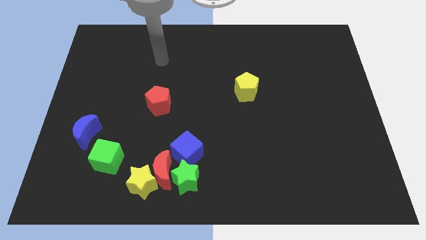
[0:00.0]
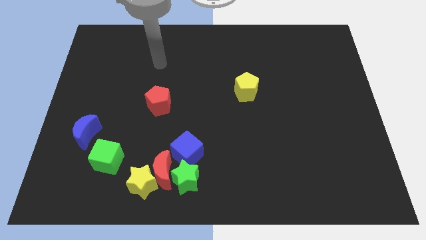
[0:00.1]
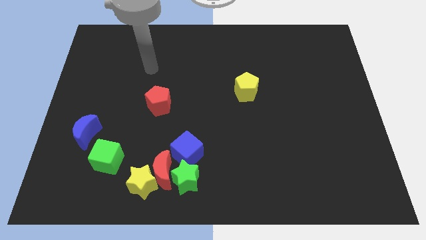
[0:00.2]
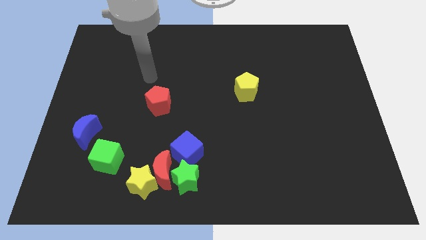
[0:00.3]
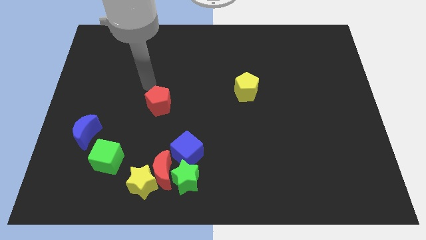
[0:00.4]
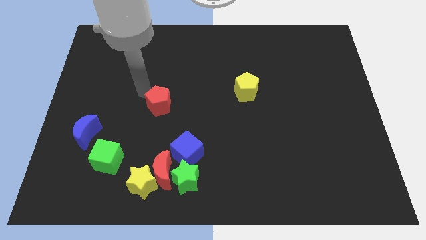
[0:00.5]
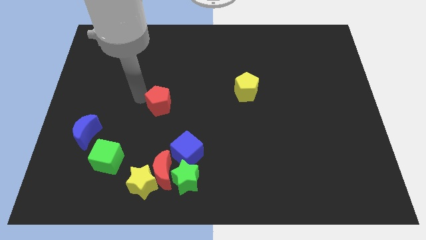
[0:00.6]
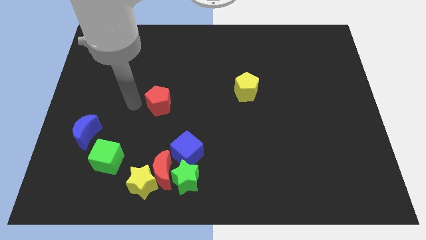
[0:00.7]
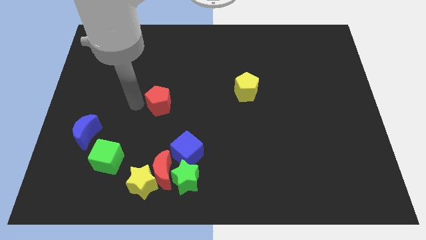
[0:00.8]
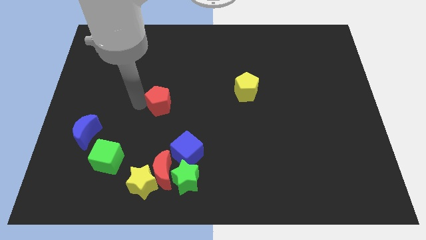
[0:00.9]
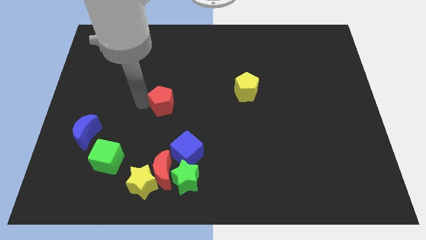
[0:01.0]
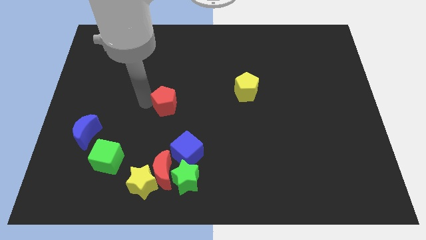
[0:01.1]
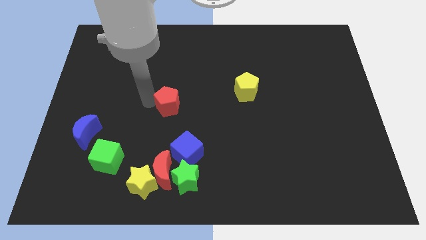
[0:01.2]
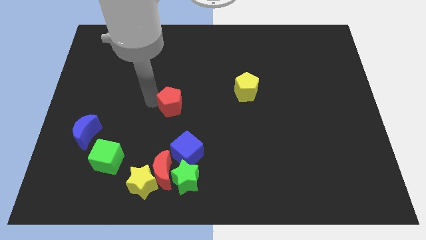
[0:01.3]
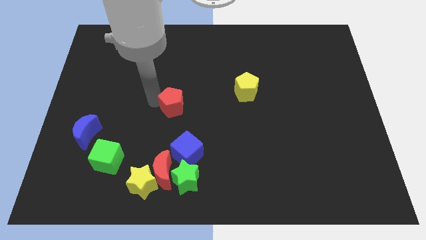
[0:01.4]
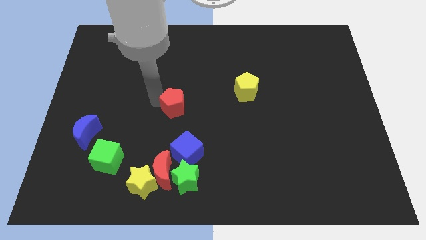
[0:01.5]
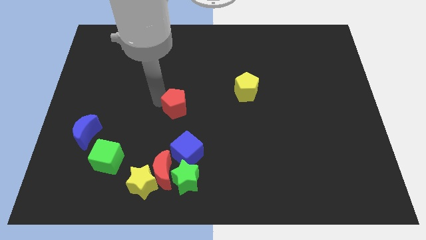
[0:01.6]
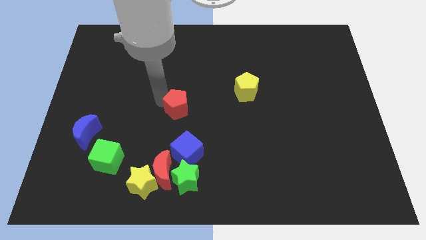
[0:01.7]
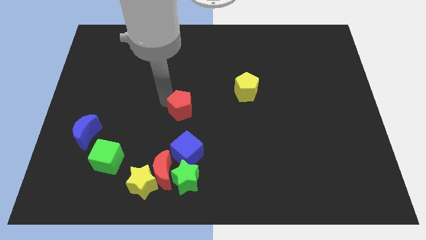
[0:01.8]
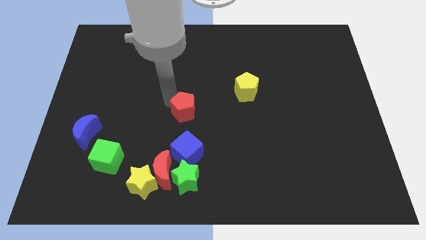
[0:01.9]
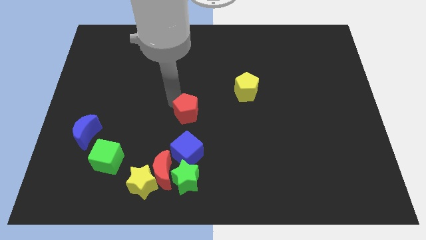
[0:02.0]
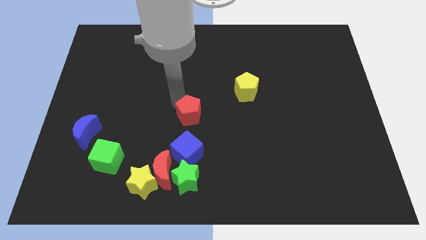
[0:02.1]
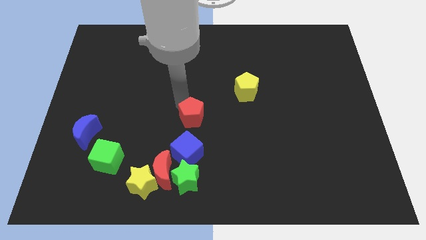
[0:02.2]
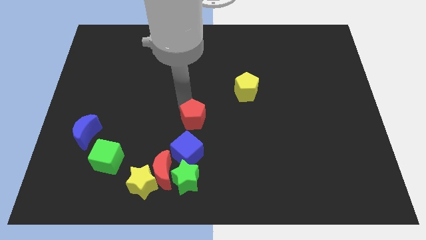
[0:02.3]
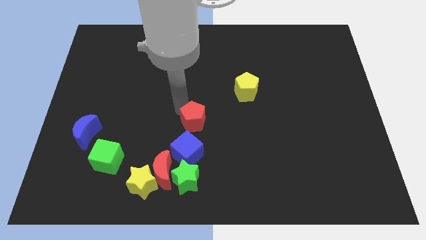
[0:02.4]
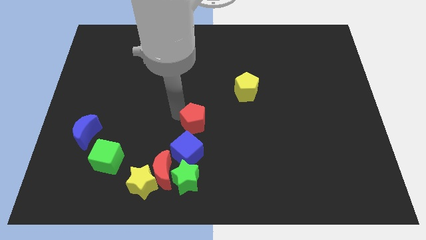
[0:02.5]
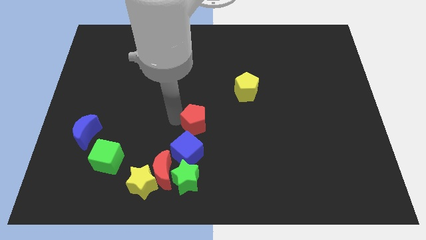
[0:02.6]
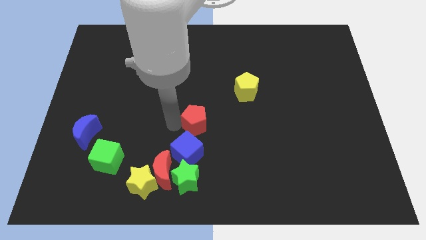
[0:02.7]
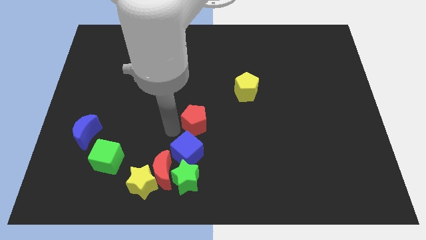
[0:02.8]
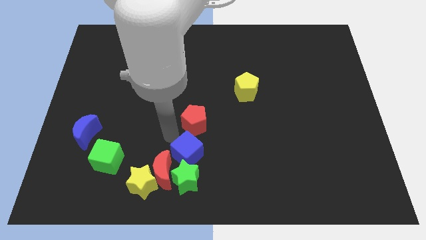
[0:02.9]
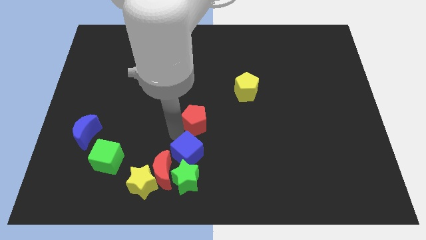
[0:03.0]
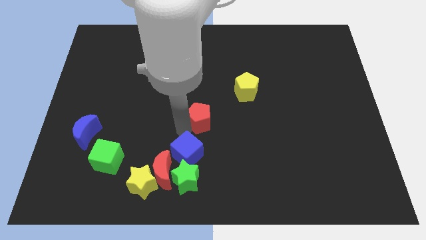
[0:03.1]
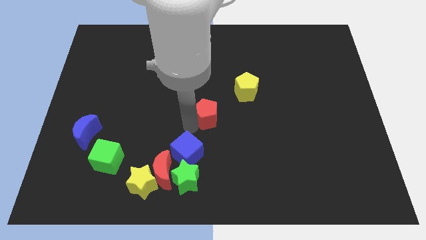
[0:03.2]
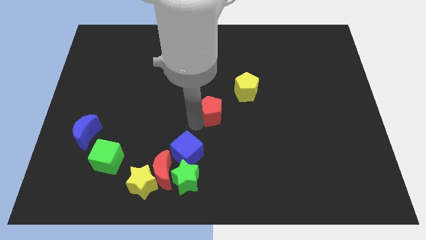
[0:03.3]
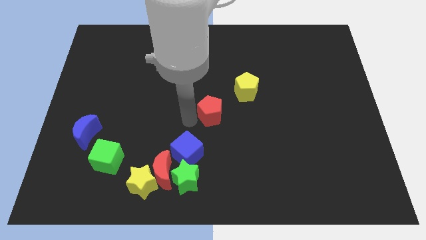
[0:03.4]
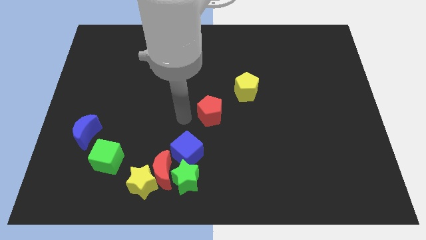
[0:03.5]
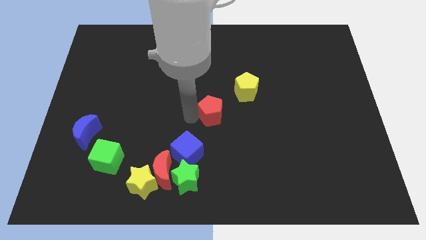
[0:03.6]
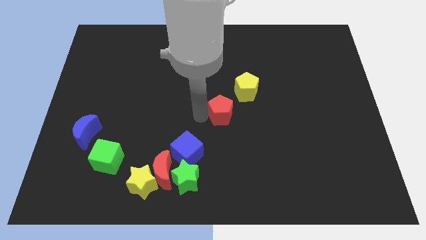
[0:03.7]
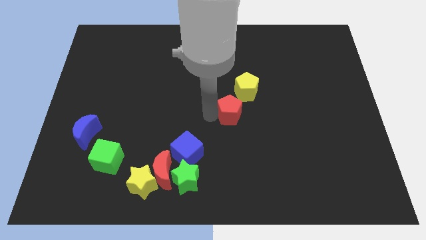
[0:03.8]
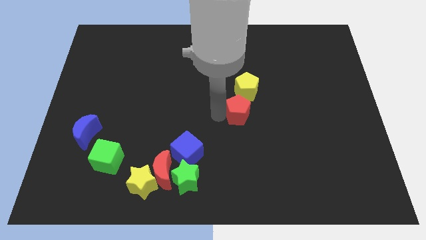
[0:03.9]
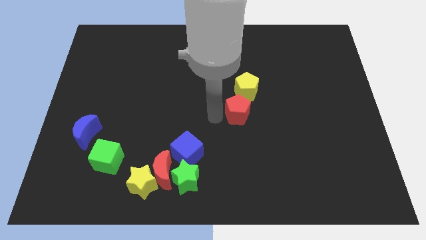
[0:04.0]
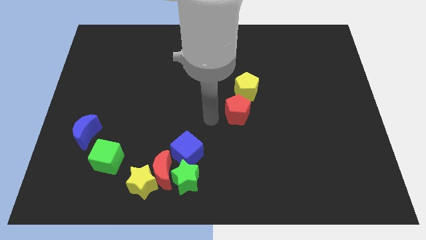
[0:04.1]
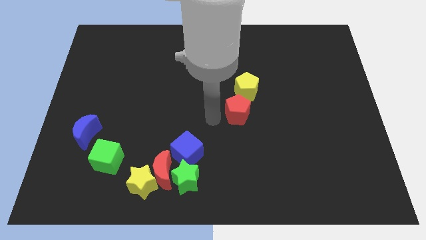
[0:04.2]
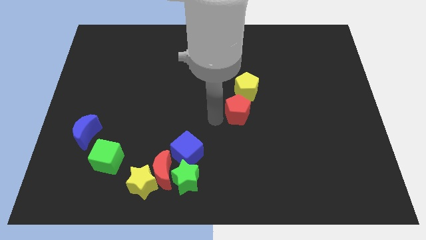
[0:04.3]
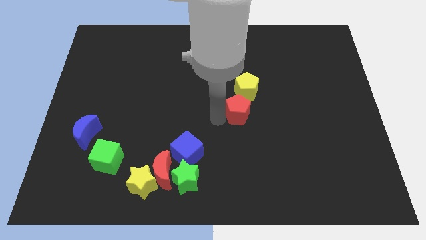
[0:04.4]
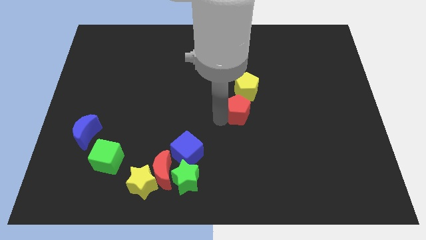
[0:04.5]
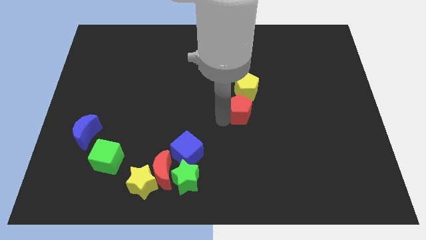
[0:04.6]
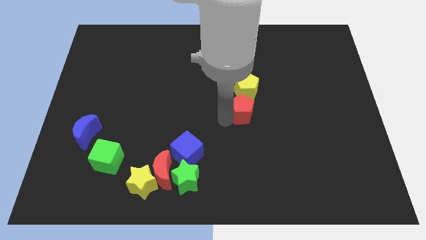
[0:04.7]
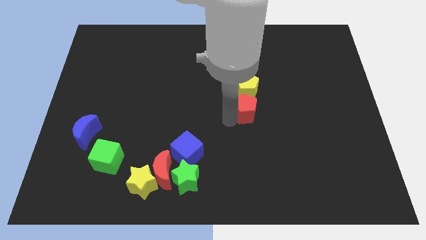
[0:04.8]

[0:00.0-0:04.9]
slide the red pentagon to the right

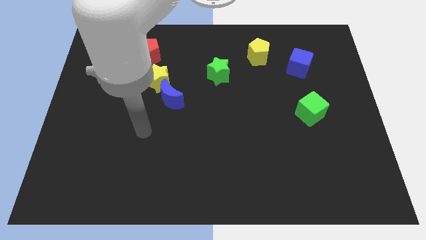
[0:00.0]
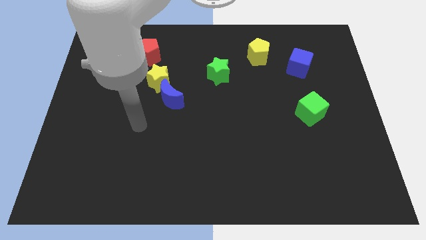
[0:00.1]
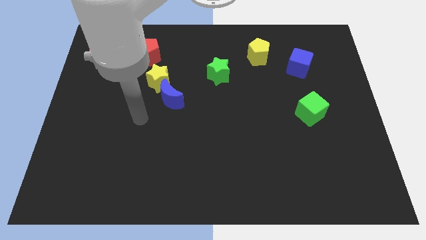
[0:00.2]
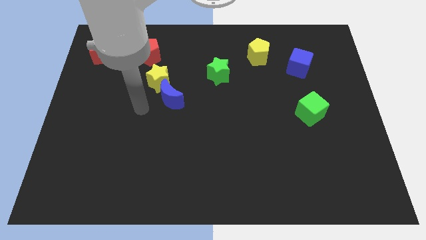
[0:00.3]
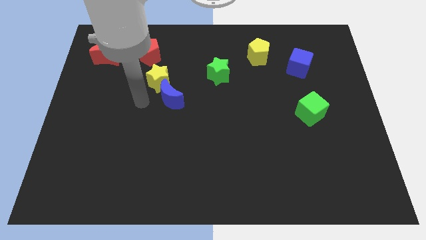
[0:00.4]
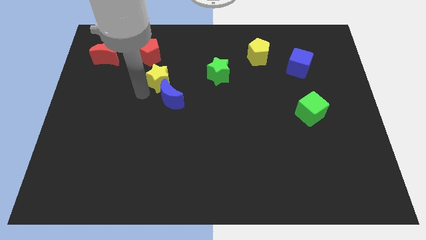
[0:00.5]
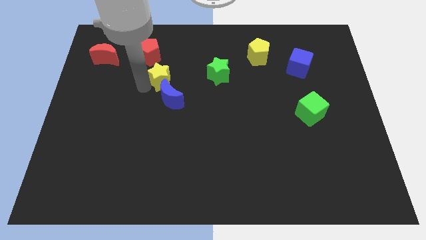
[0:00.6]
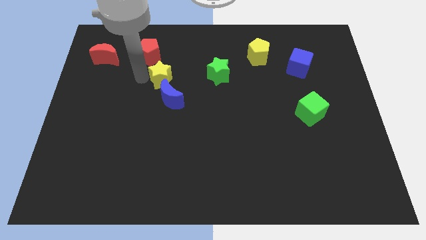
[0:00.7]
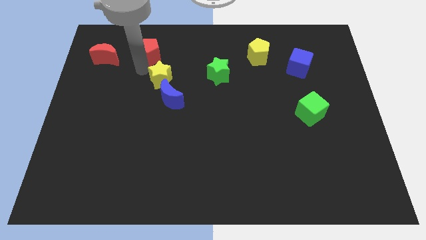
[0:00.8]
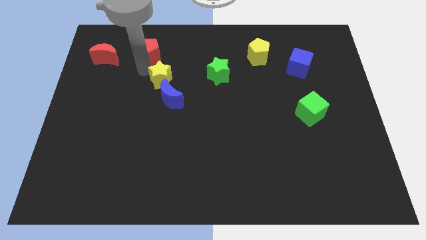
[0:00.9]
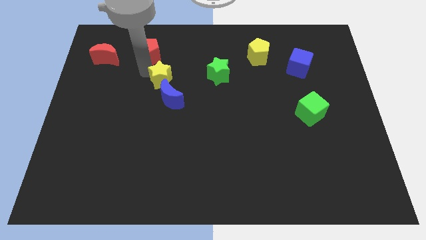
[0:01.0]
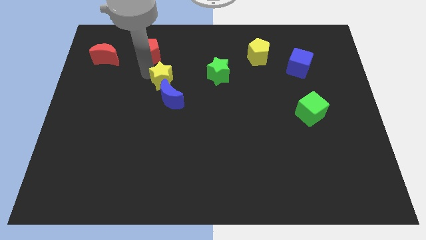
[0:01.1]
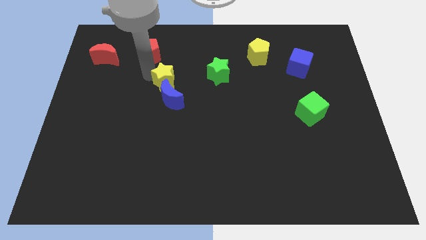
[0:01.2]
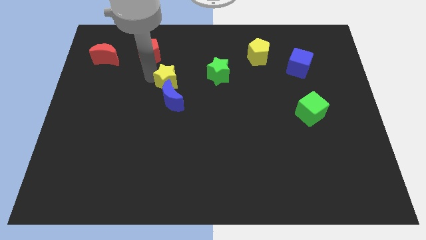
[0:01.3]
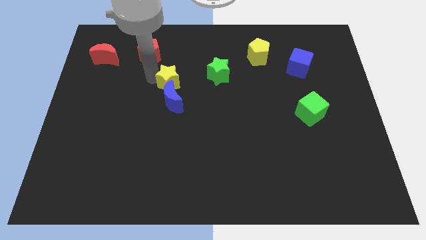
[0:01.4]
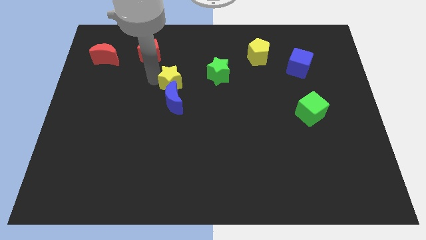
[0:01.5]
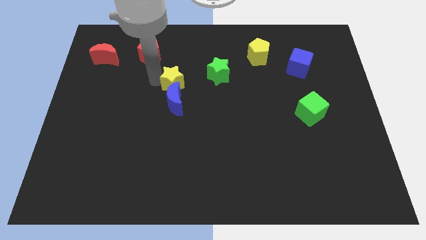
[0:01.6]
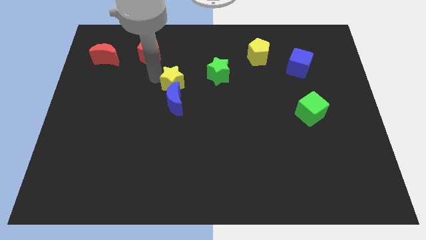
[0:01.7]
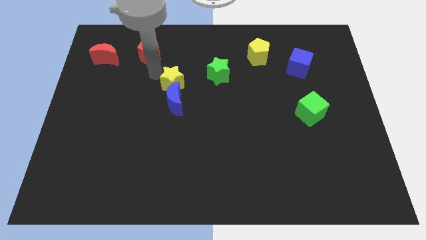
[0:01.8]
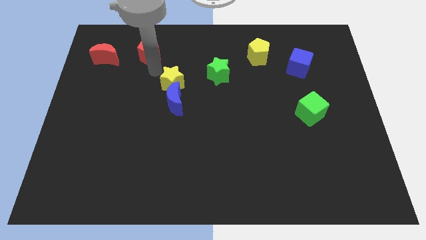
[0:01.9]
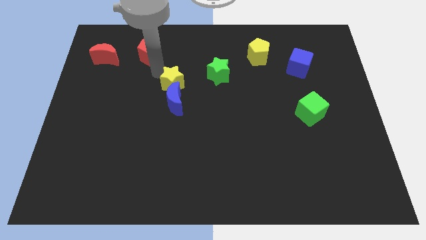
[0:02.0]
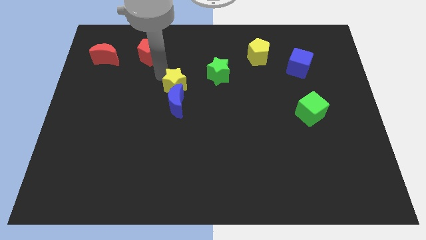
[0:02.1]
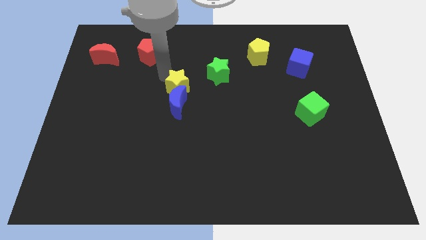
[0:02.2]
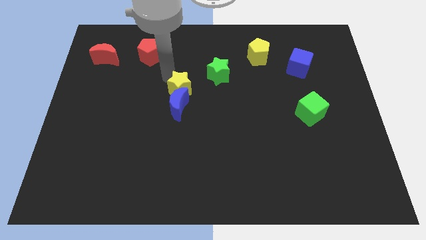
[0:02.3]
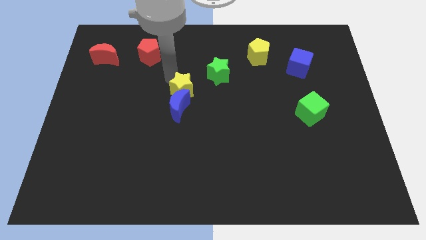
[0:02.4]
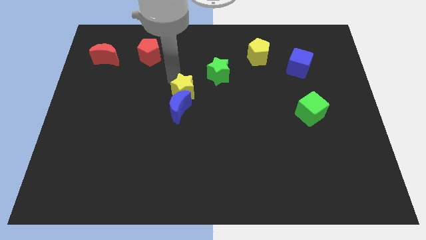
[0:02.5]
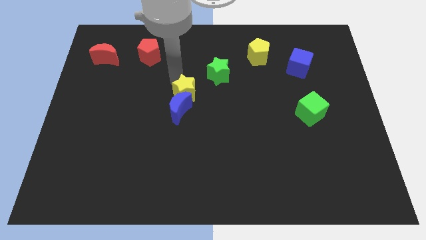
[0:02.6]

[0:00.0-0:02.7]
move the yellow star a little diagonally downwards and to the right

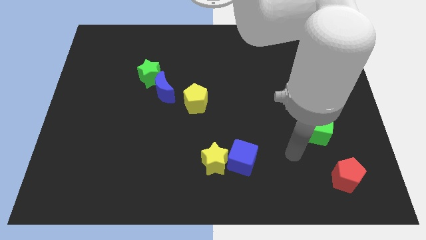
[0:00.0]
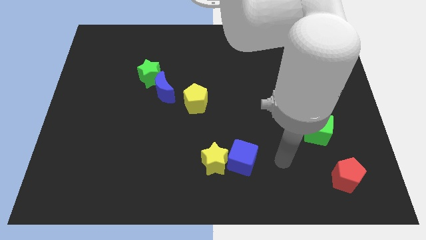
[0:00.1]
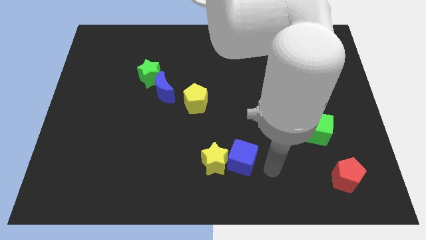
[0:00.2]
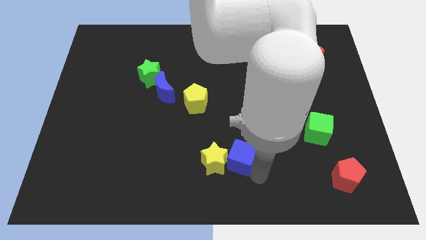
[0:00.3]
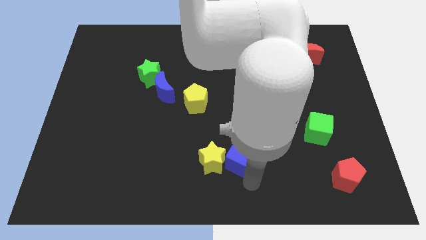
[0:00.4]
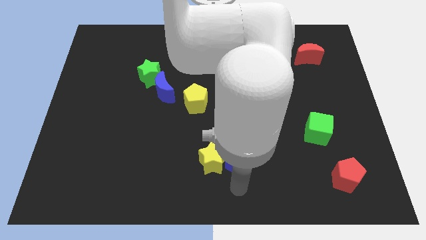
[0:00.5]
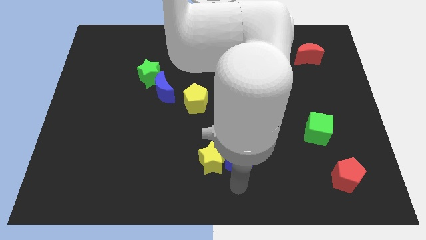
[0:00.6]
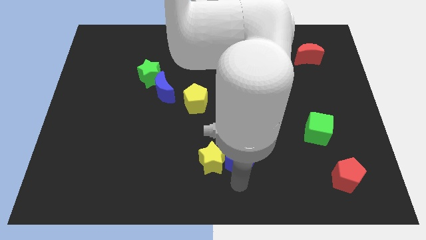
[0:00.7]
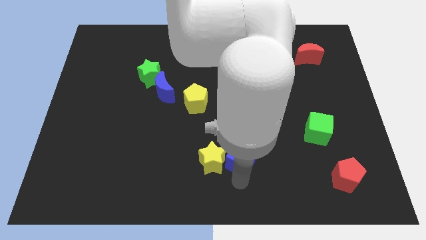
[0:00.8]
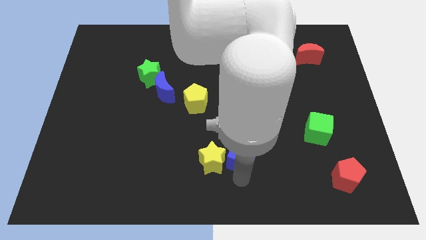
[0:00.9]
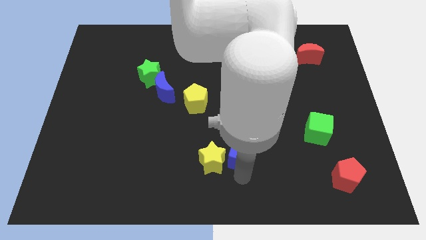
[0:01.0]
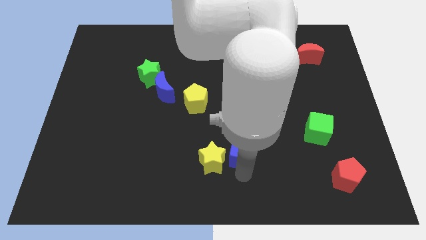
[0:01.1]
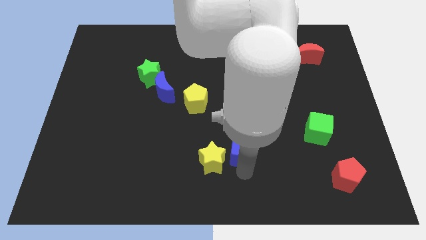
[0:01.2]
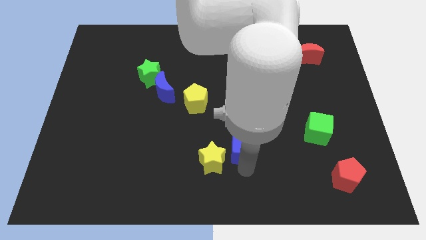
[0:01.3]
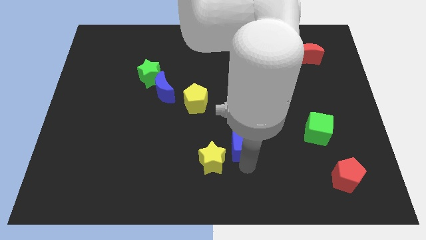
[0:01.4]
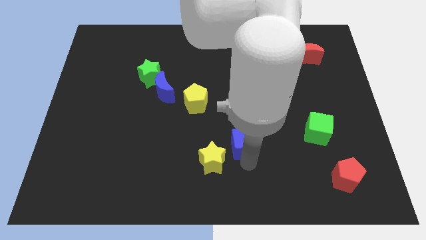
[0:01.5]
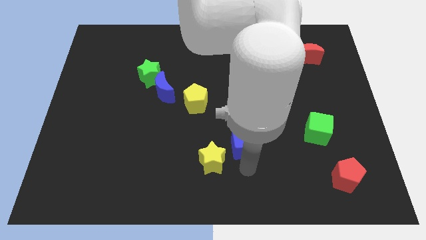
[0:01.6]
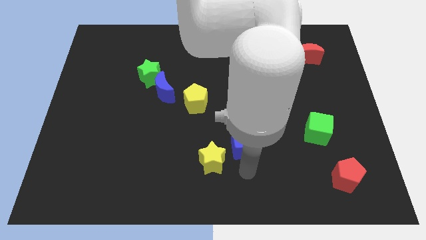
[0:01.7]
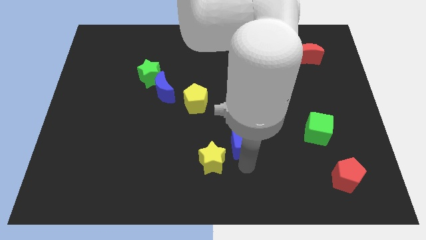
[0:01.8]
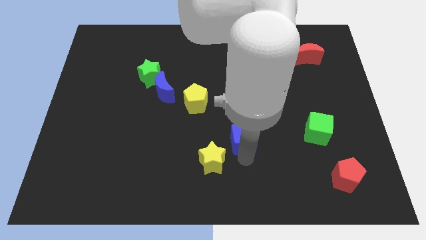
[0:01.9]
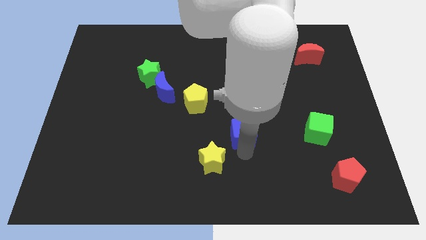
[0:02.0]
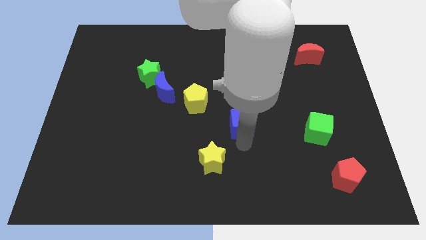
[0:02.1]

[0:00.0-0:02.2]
move the blue cube slightly upwards
